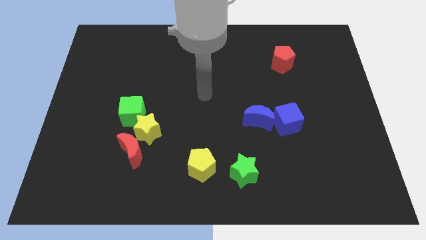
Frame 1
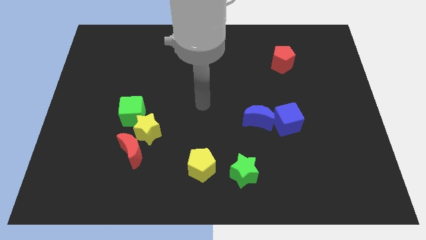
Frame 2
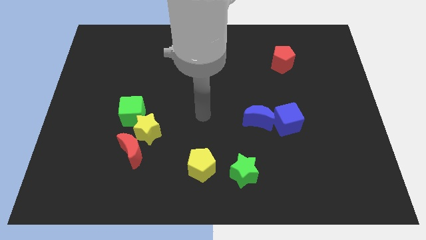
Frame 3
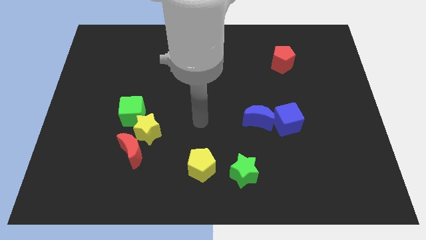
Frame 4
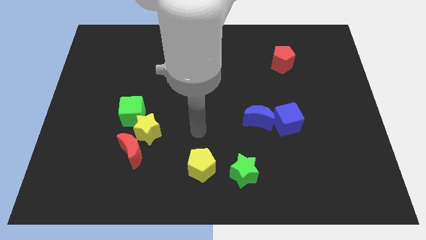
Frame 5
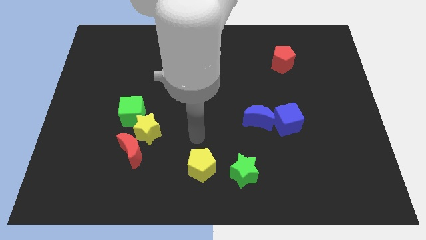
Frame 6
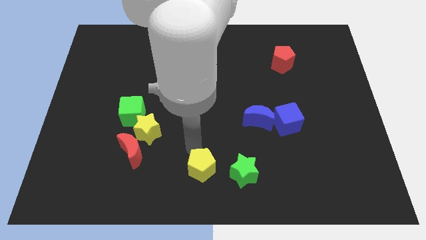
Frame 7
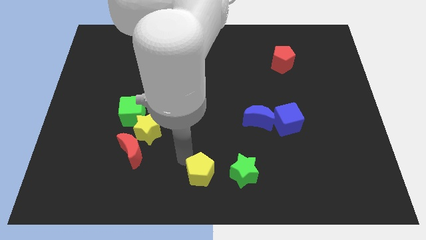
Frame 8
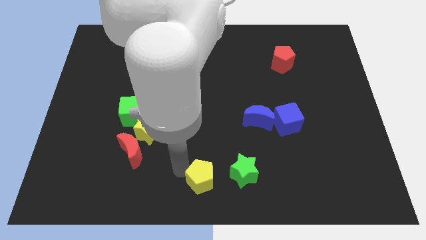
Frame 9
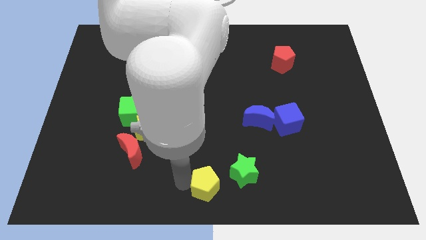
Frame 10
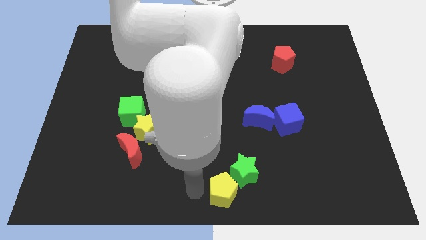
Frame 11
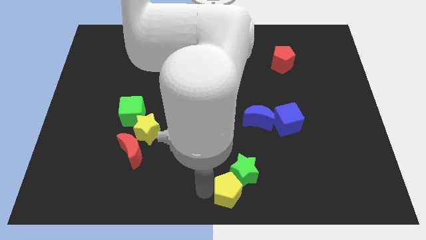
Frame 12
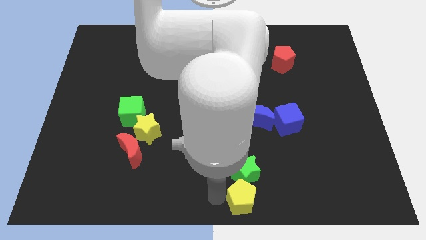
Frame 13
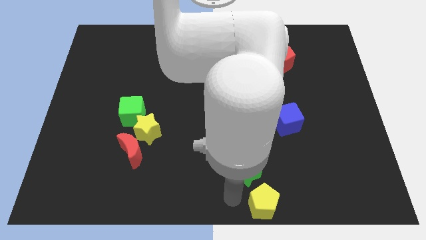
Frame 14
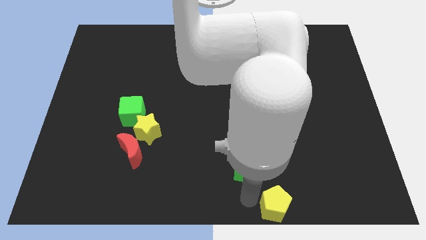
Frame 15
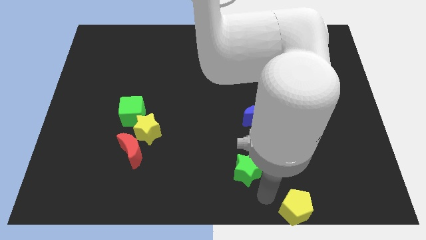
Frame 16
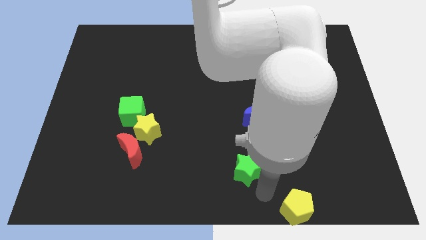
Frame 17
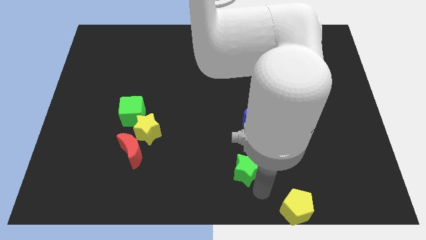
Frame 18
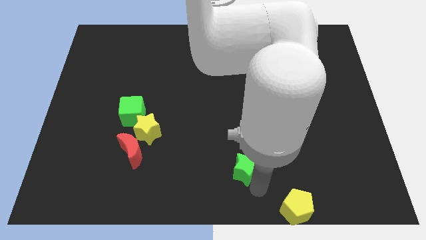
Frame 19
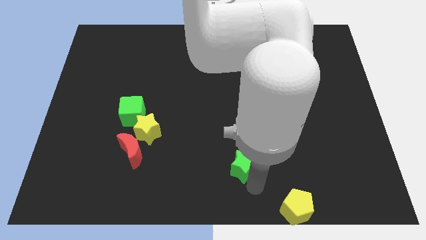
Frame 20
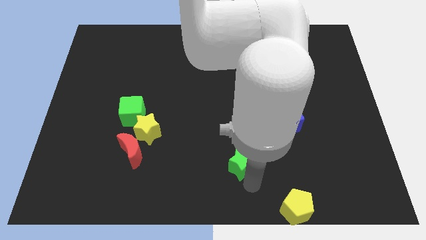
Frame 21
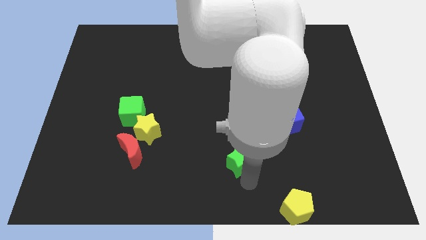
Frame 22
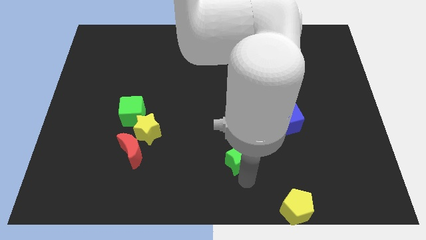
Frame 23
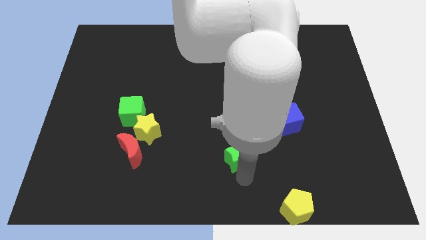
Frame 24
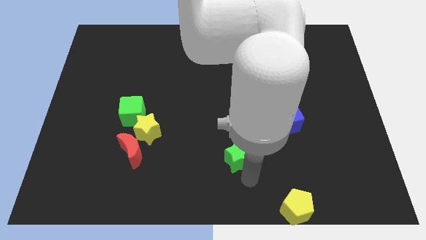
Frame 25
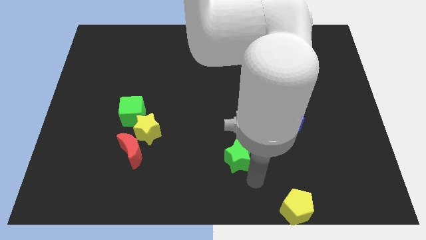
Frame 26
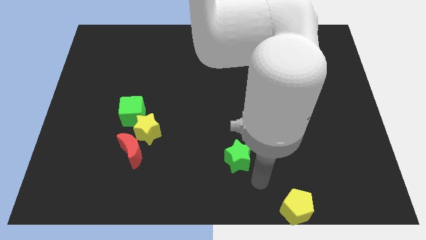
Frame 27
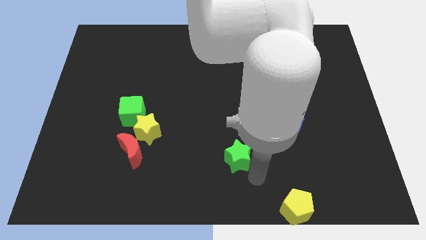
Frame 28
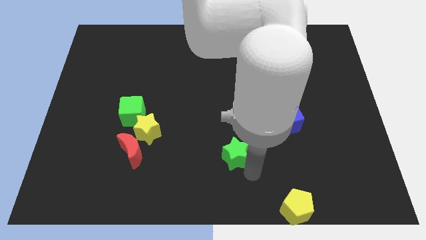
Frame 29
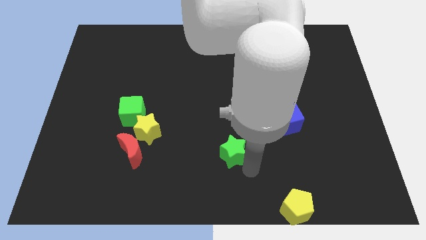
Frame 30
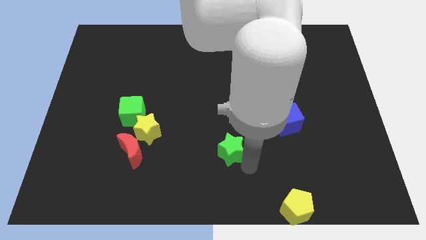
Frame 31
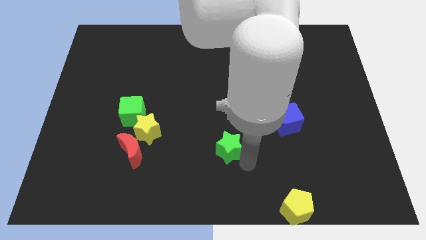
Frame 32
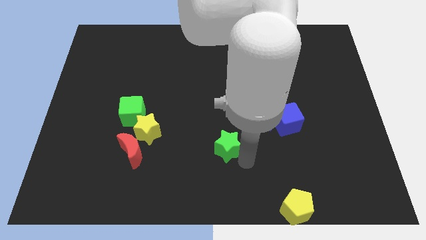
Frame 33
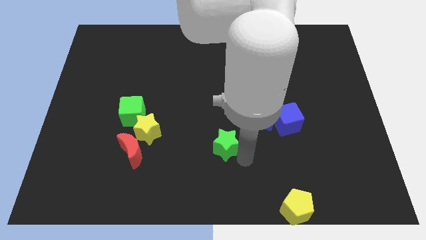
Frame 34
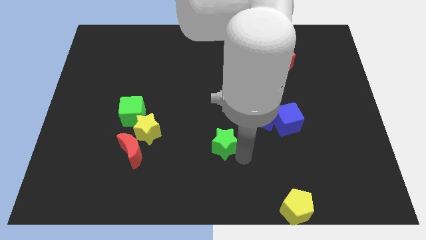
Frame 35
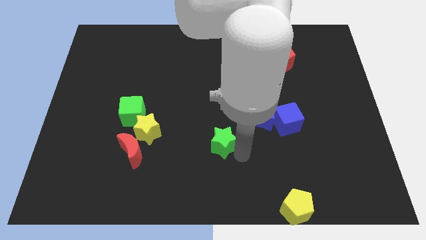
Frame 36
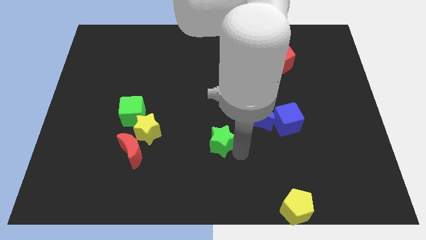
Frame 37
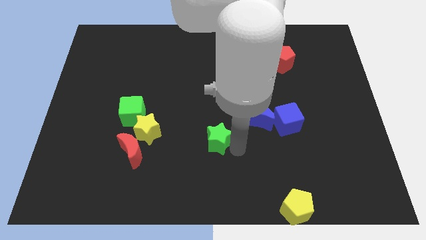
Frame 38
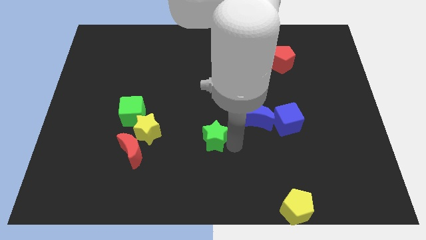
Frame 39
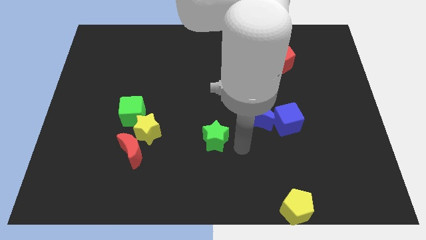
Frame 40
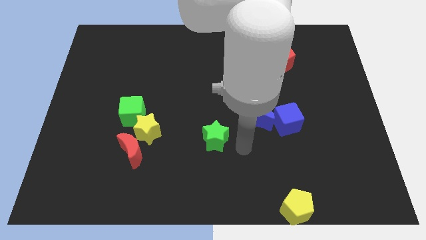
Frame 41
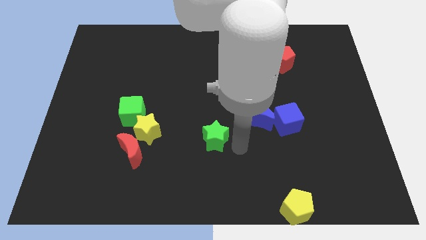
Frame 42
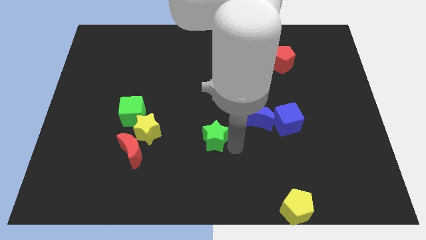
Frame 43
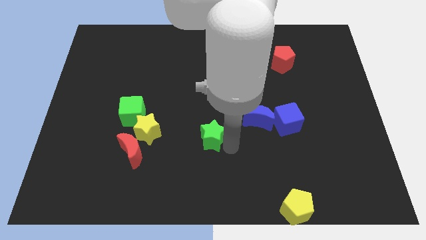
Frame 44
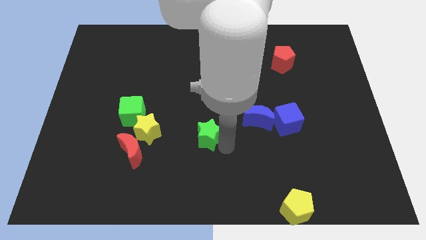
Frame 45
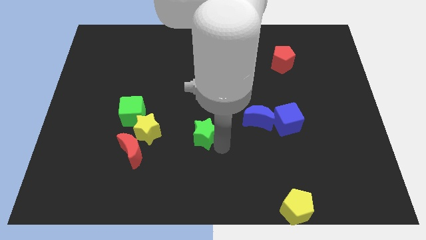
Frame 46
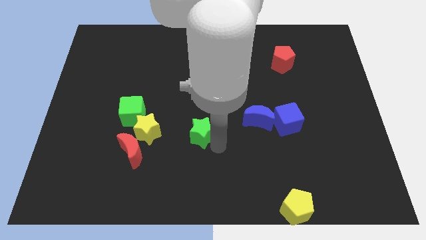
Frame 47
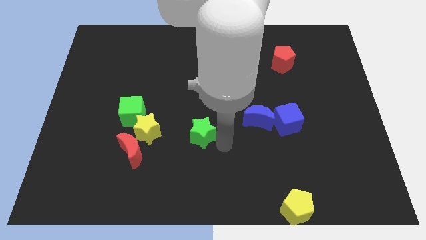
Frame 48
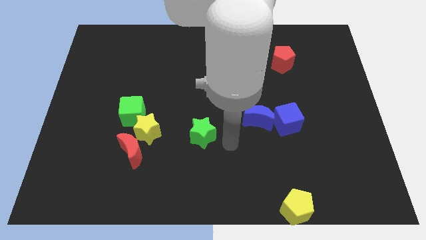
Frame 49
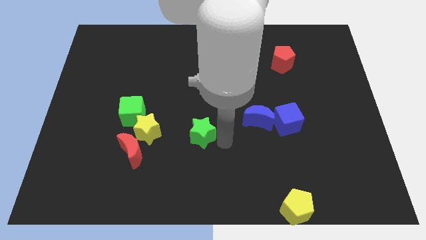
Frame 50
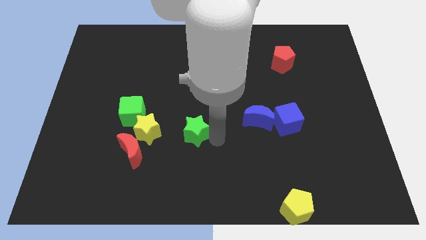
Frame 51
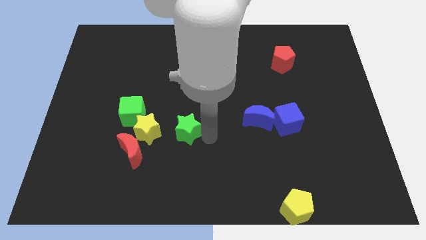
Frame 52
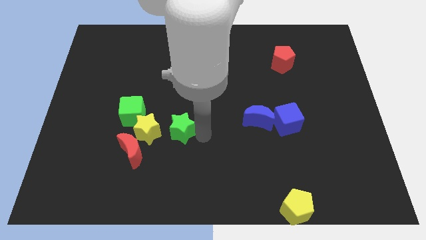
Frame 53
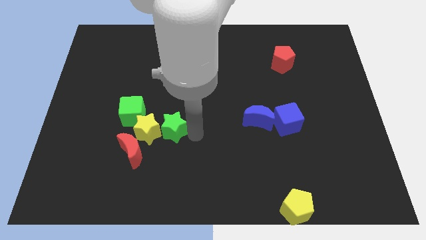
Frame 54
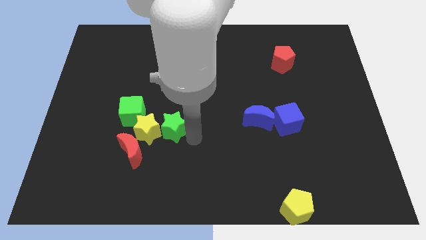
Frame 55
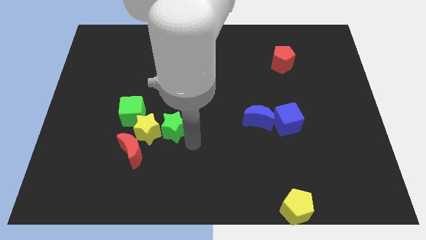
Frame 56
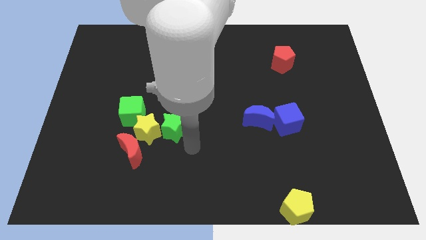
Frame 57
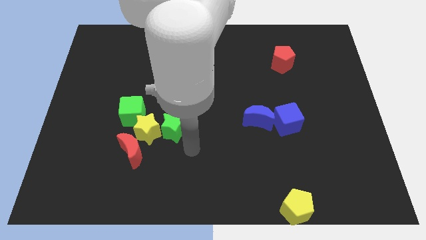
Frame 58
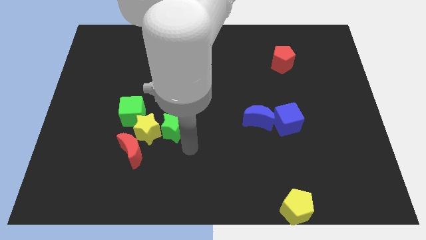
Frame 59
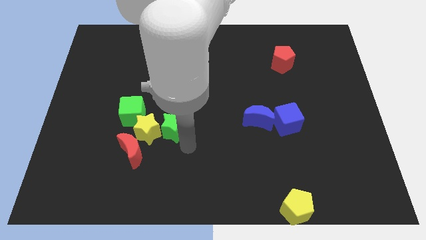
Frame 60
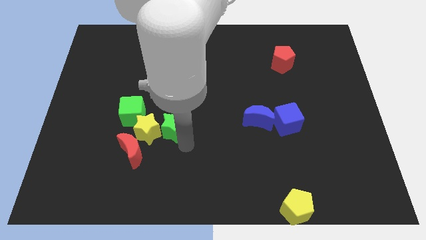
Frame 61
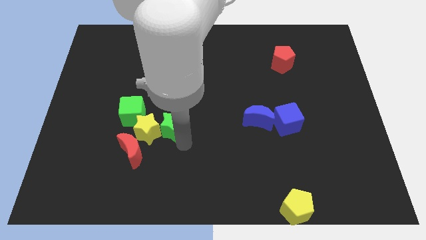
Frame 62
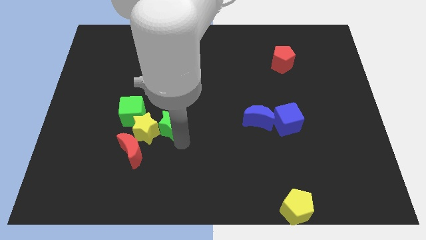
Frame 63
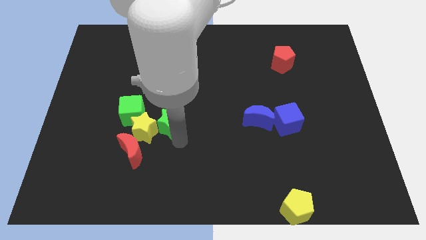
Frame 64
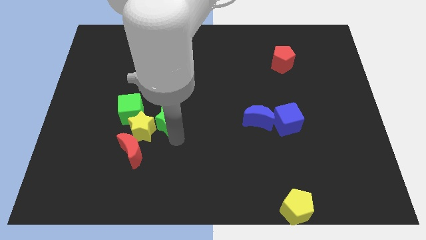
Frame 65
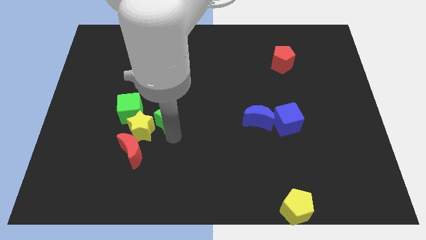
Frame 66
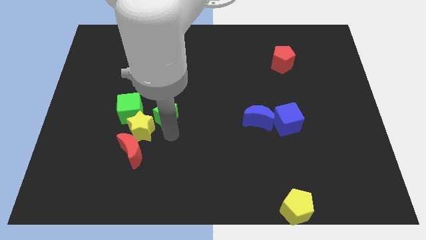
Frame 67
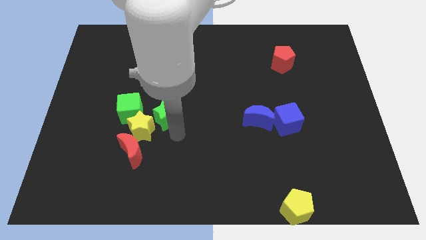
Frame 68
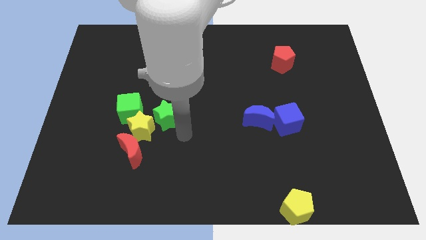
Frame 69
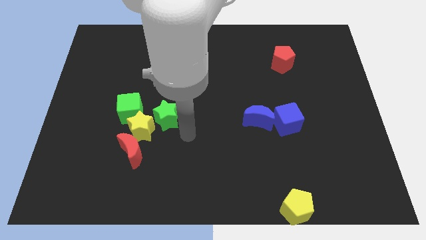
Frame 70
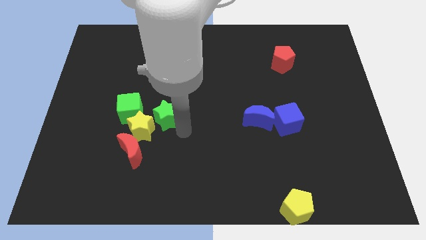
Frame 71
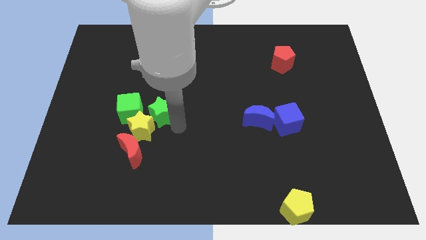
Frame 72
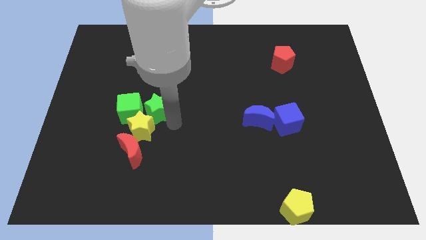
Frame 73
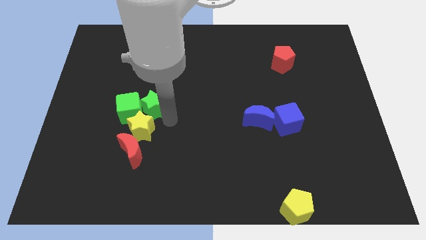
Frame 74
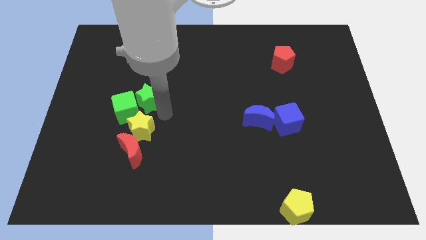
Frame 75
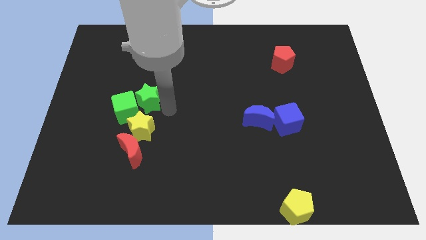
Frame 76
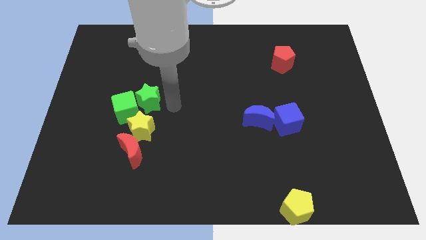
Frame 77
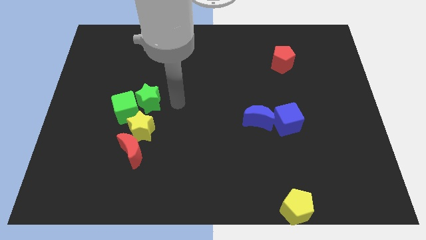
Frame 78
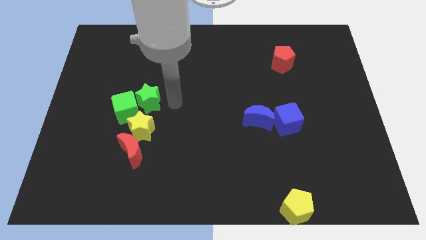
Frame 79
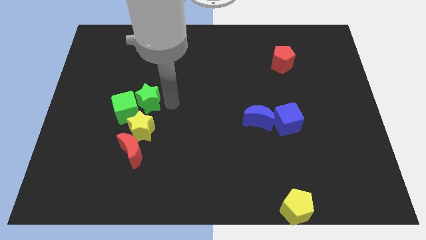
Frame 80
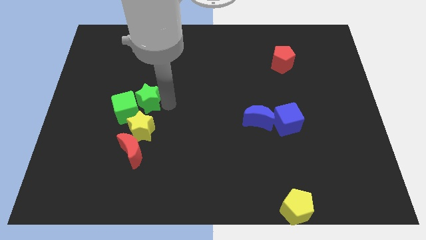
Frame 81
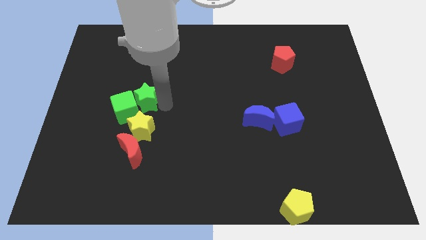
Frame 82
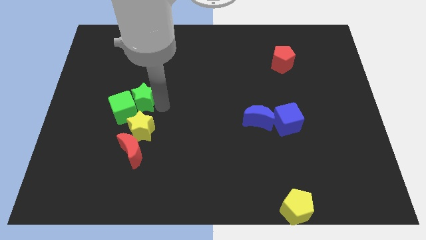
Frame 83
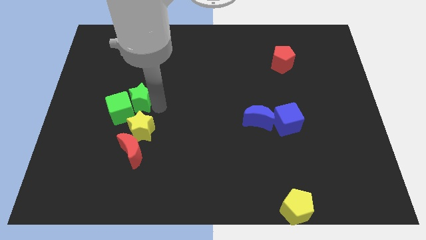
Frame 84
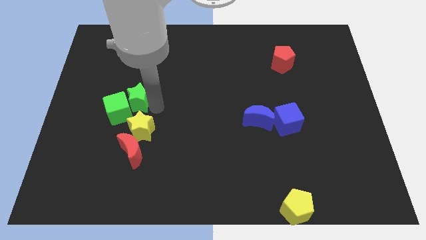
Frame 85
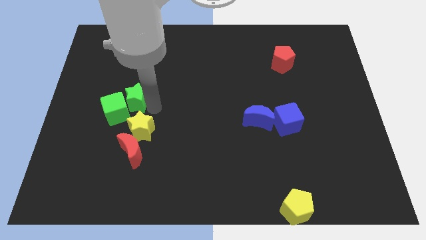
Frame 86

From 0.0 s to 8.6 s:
put the green star to the top left of the yellow star
